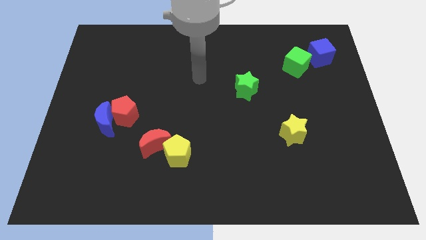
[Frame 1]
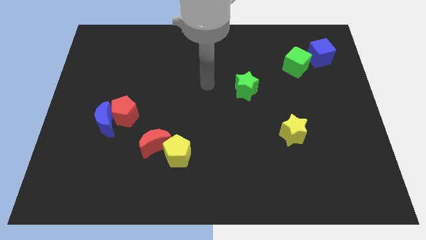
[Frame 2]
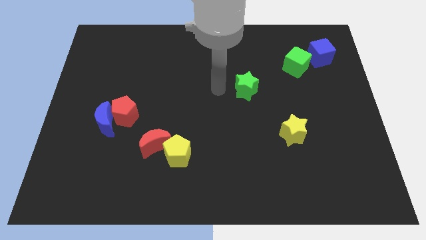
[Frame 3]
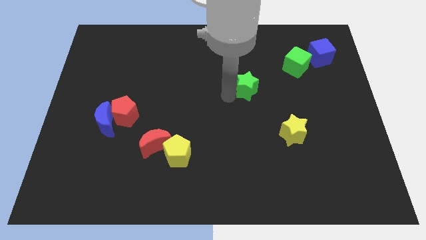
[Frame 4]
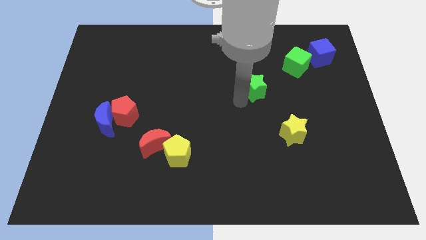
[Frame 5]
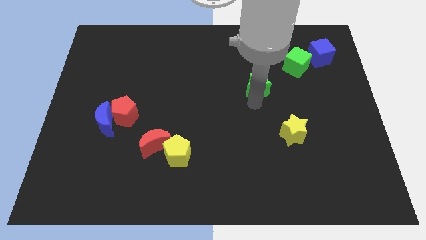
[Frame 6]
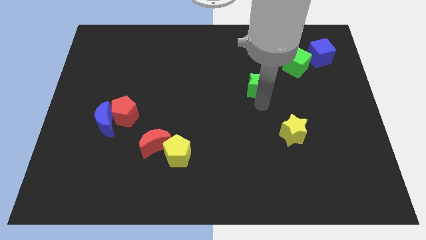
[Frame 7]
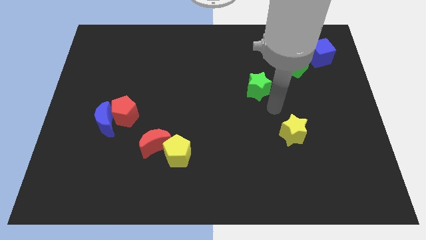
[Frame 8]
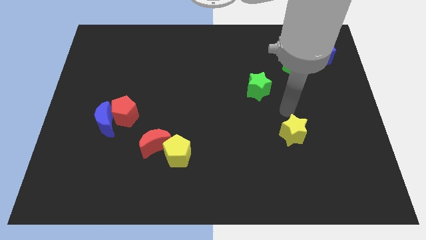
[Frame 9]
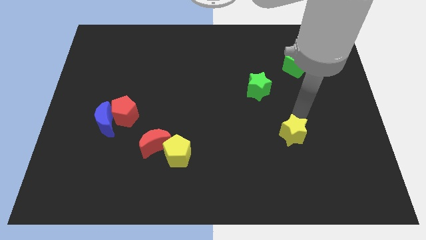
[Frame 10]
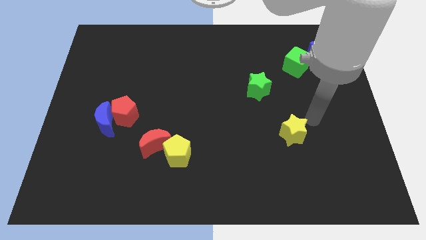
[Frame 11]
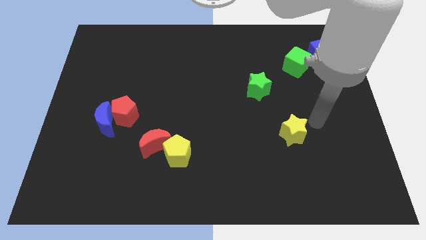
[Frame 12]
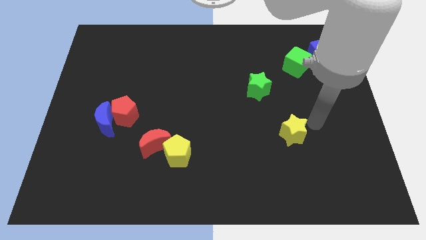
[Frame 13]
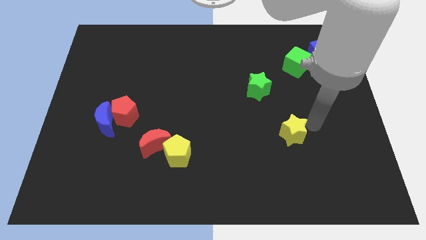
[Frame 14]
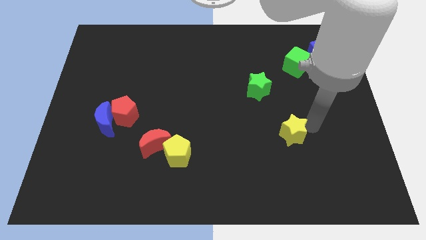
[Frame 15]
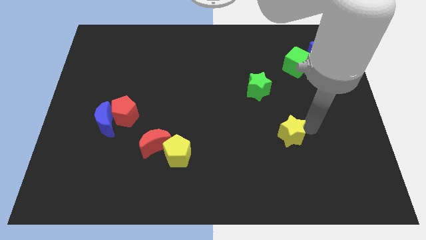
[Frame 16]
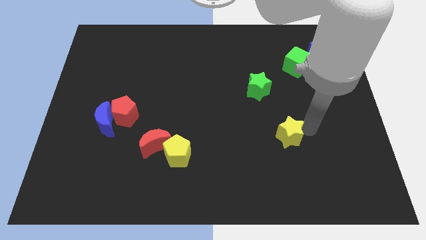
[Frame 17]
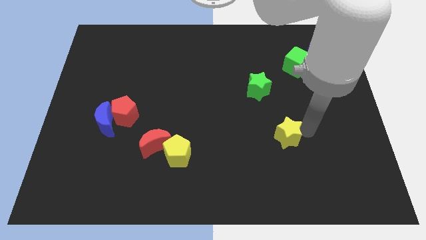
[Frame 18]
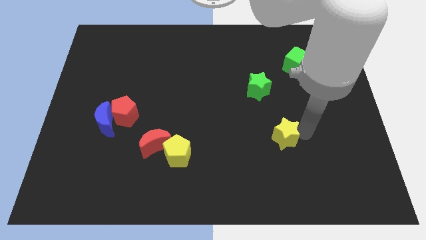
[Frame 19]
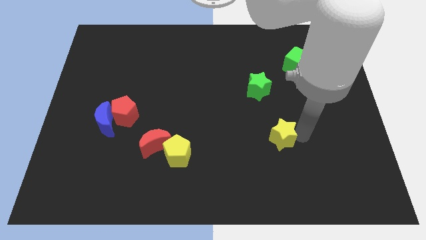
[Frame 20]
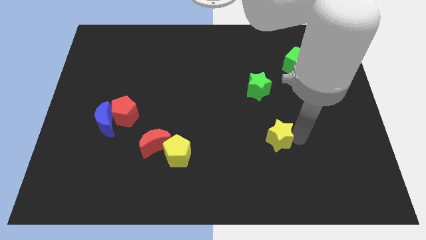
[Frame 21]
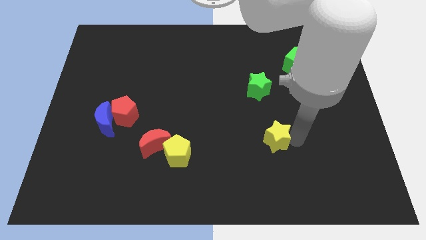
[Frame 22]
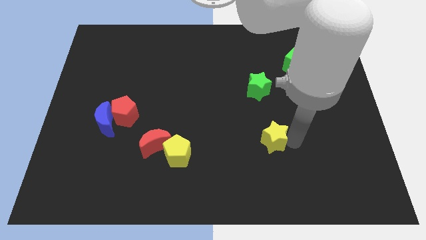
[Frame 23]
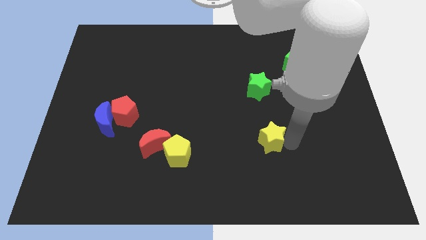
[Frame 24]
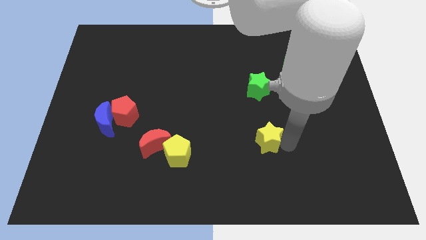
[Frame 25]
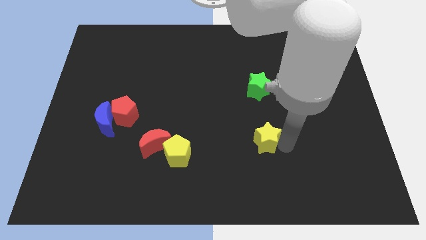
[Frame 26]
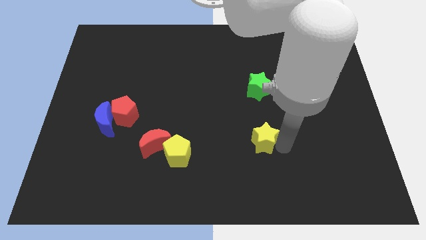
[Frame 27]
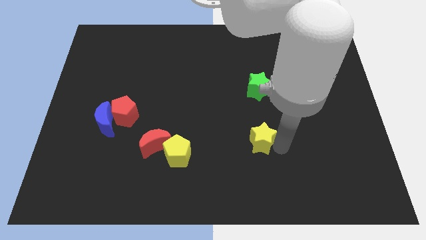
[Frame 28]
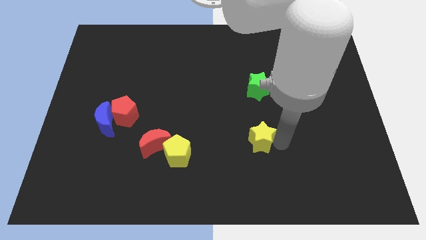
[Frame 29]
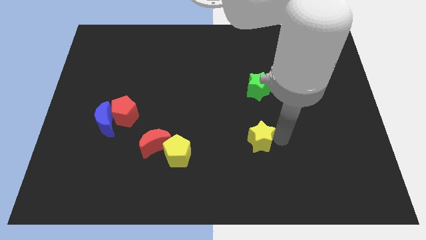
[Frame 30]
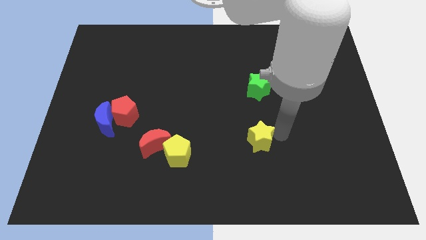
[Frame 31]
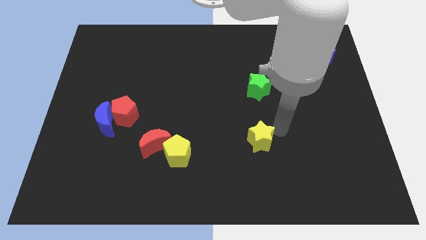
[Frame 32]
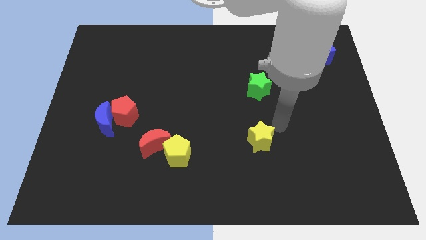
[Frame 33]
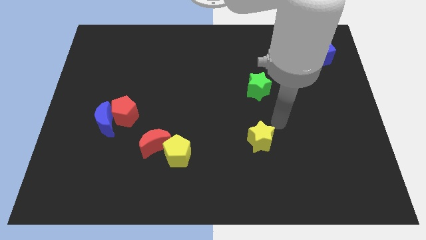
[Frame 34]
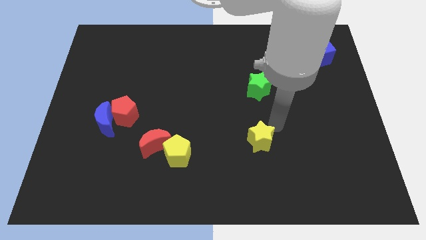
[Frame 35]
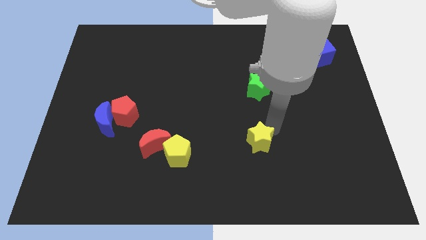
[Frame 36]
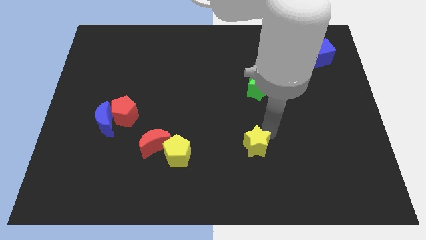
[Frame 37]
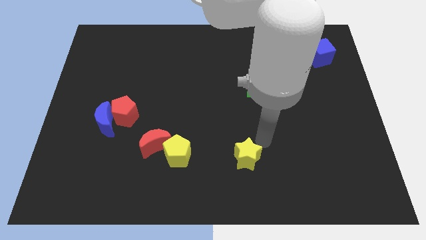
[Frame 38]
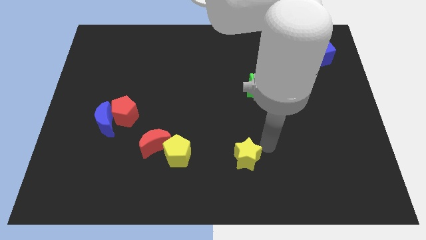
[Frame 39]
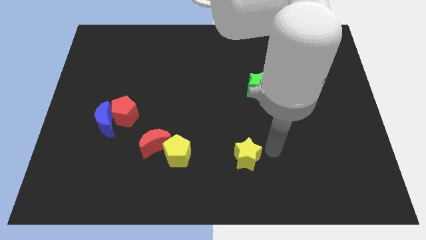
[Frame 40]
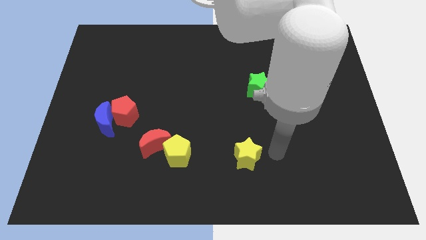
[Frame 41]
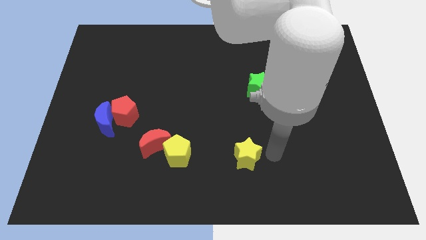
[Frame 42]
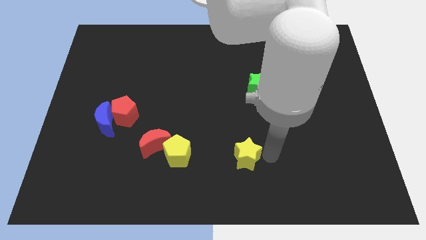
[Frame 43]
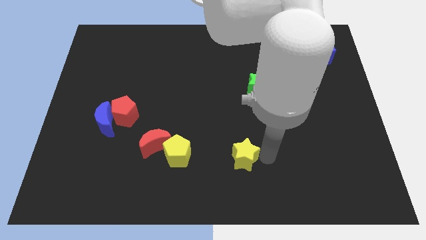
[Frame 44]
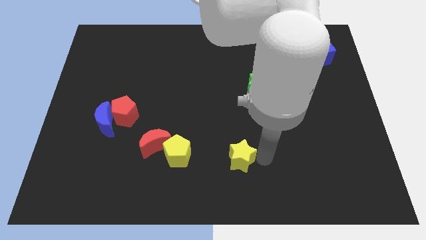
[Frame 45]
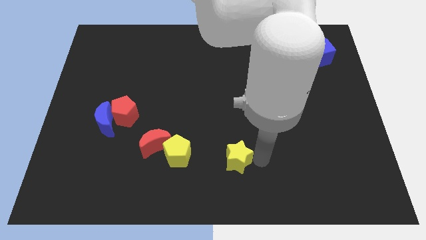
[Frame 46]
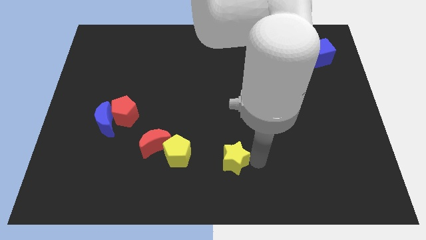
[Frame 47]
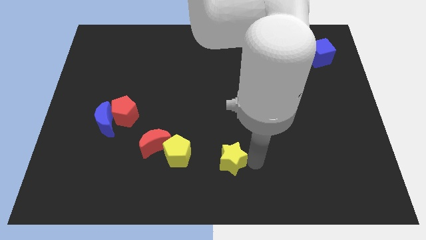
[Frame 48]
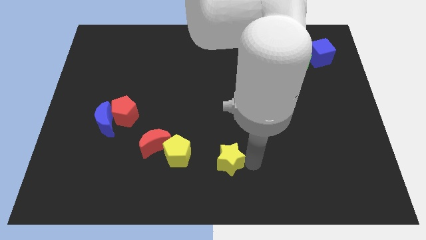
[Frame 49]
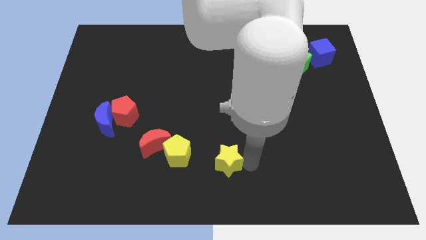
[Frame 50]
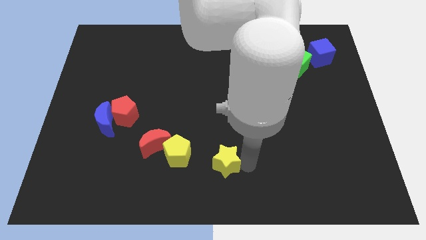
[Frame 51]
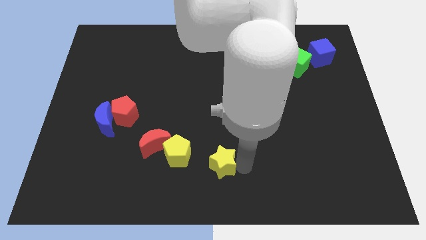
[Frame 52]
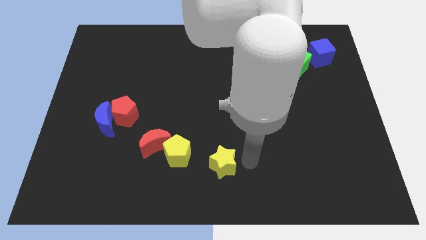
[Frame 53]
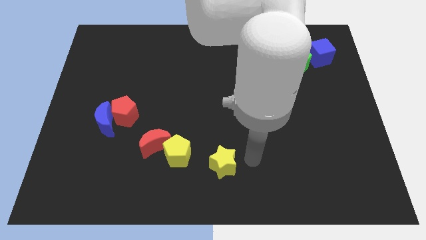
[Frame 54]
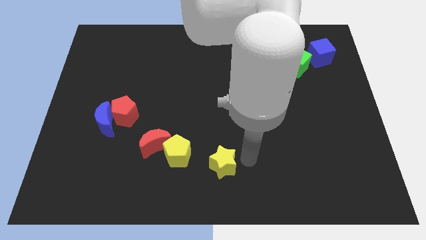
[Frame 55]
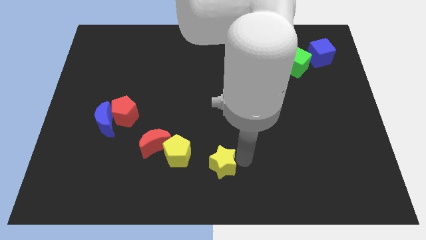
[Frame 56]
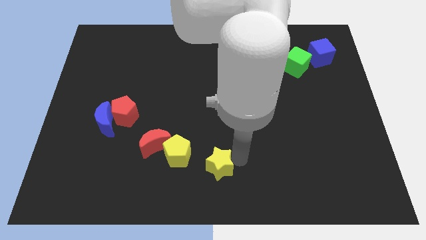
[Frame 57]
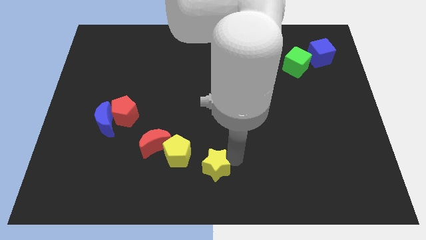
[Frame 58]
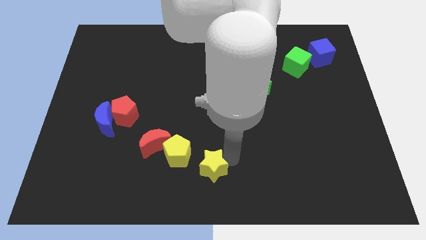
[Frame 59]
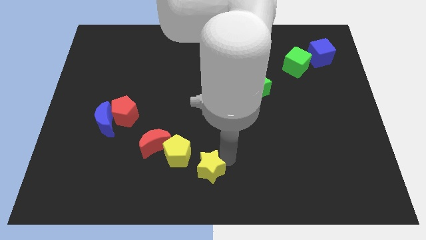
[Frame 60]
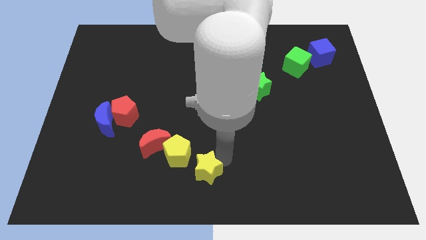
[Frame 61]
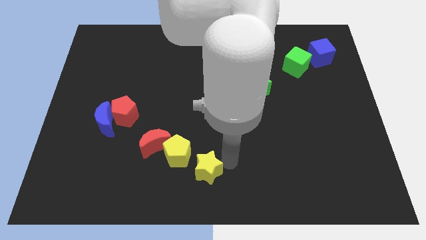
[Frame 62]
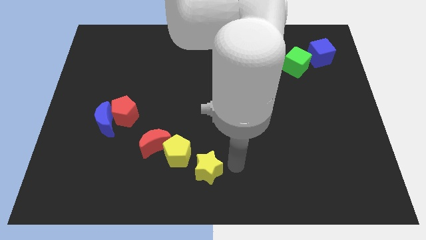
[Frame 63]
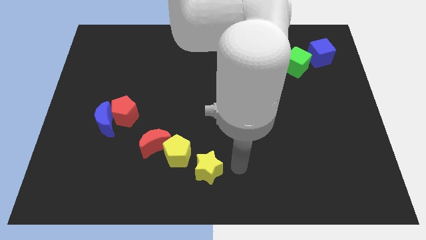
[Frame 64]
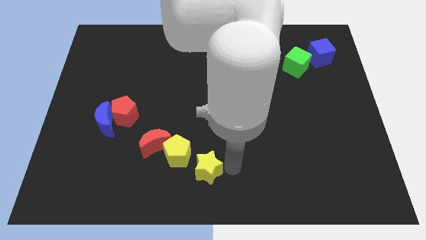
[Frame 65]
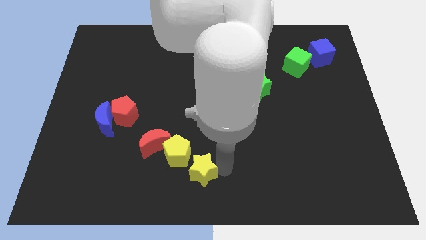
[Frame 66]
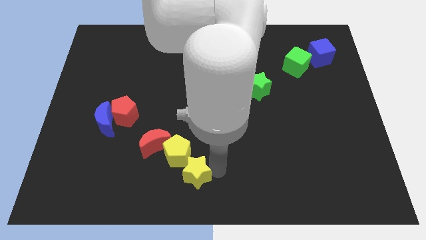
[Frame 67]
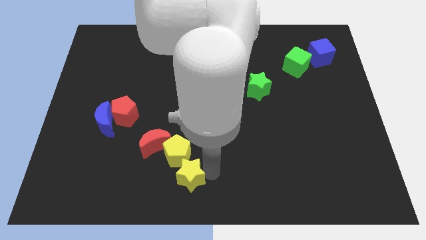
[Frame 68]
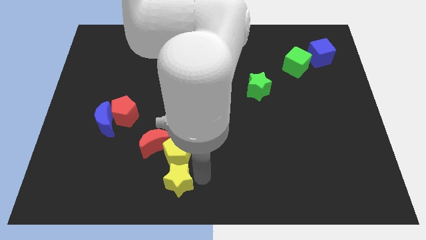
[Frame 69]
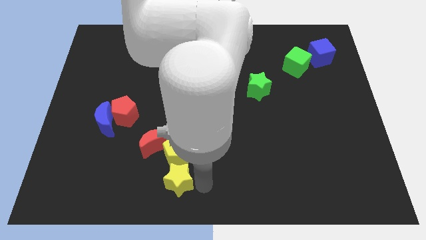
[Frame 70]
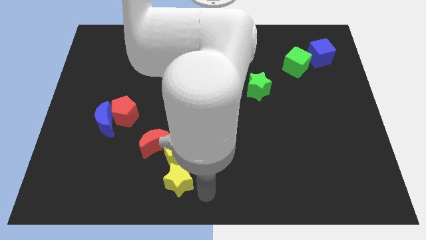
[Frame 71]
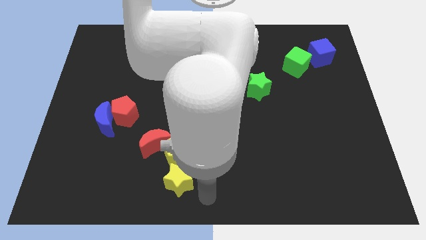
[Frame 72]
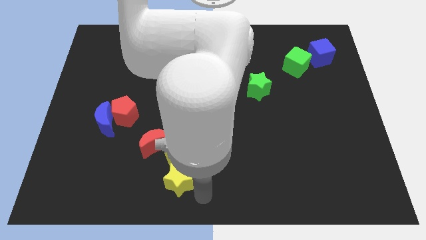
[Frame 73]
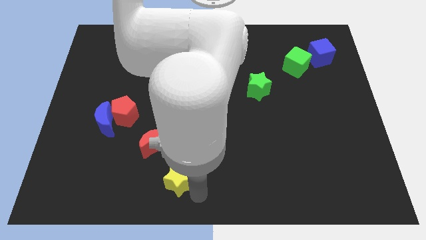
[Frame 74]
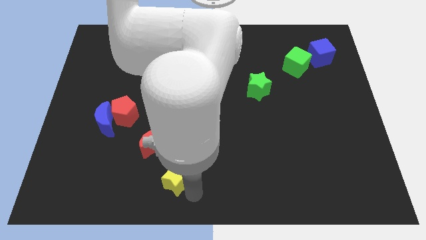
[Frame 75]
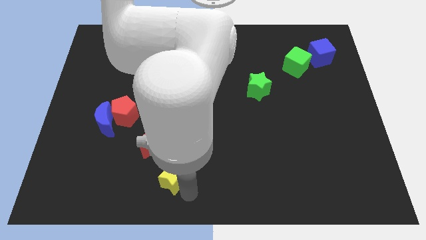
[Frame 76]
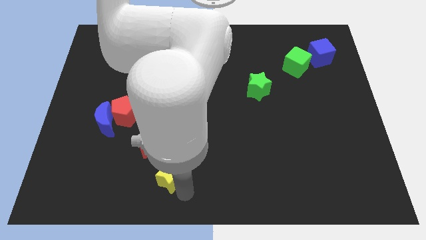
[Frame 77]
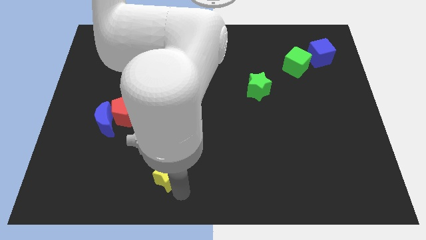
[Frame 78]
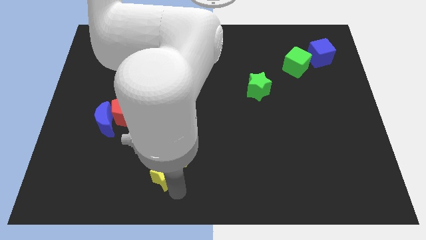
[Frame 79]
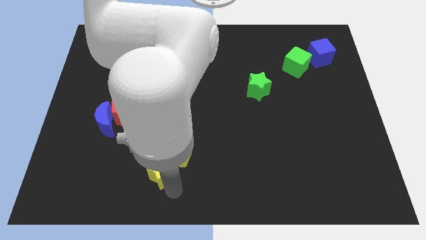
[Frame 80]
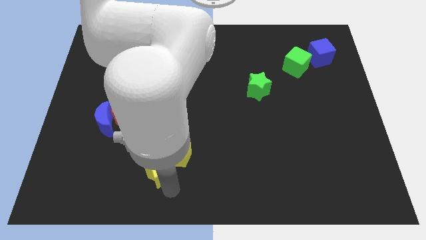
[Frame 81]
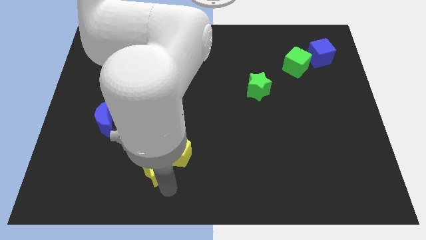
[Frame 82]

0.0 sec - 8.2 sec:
slide the yellow star left of the yellow pentagon
